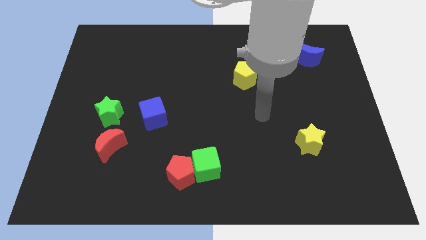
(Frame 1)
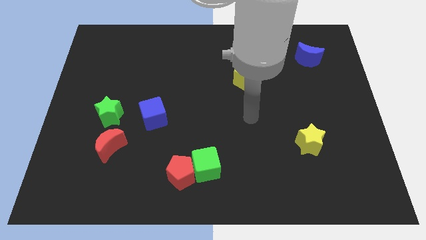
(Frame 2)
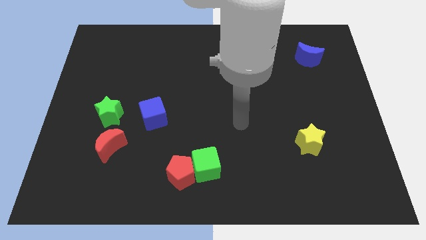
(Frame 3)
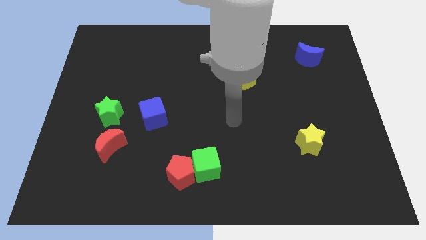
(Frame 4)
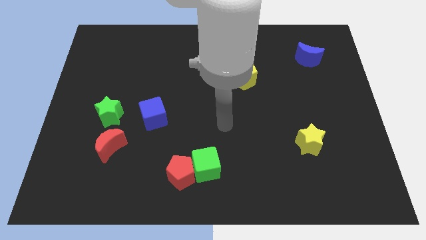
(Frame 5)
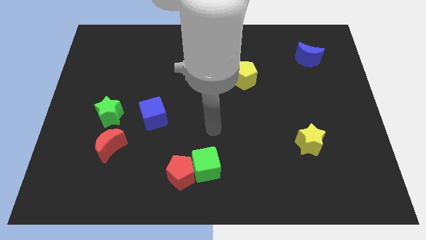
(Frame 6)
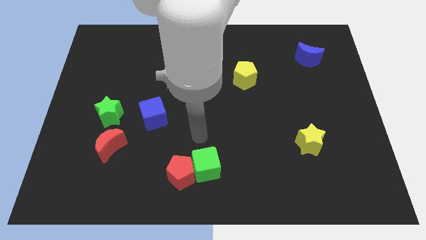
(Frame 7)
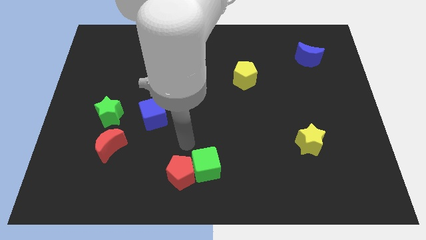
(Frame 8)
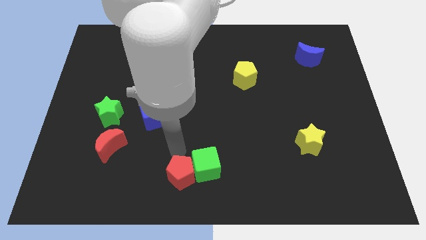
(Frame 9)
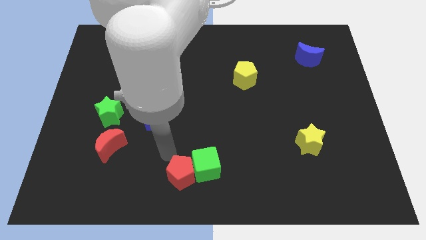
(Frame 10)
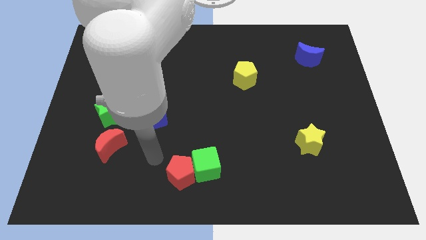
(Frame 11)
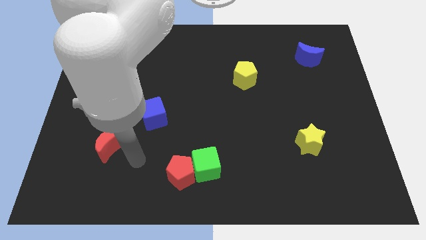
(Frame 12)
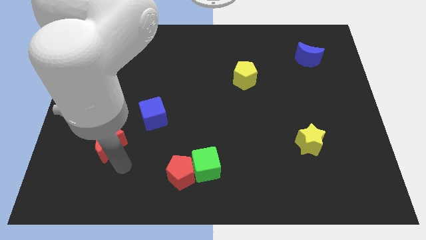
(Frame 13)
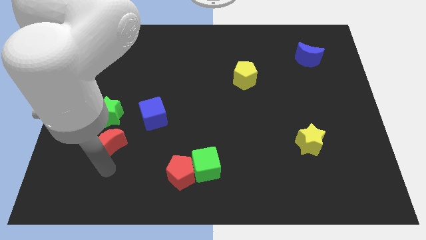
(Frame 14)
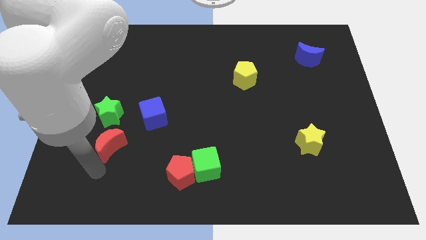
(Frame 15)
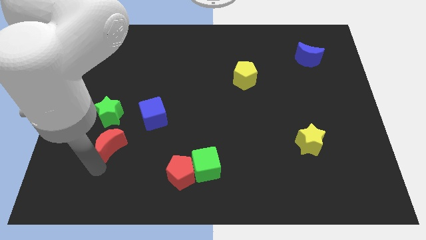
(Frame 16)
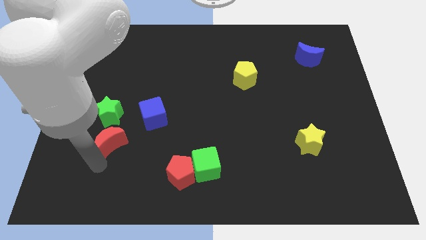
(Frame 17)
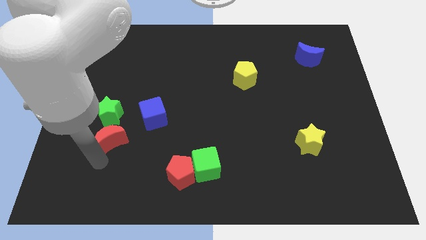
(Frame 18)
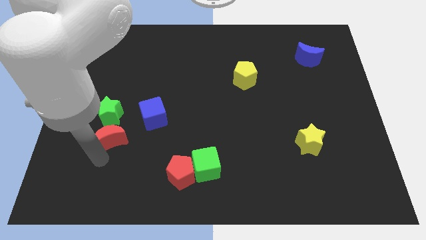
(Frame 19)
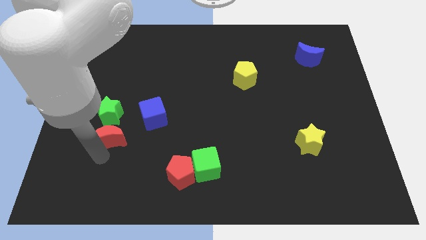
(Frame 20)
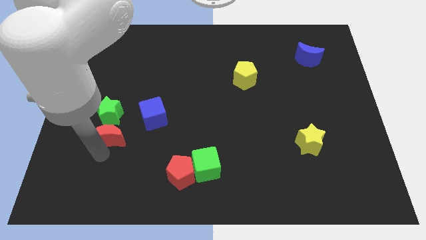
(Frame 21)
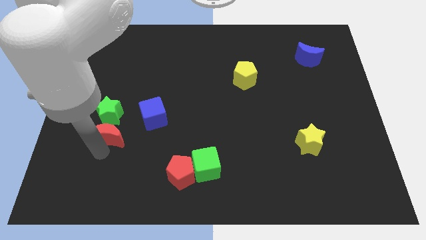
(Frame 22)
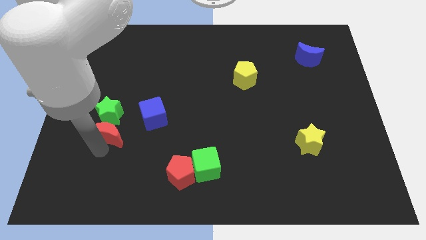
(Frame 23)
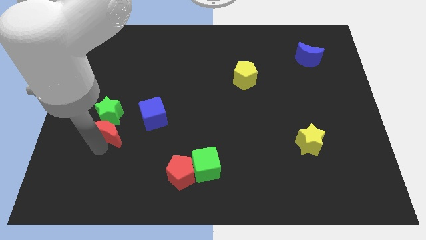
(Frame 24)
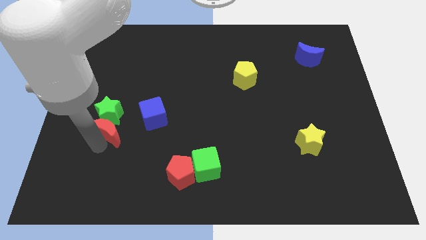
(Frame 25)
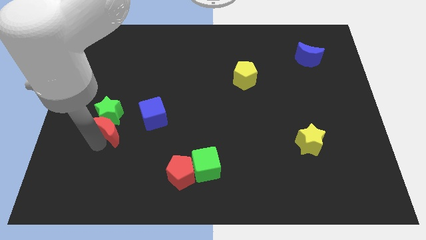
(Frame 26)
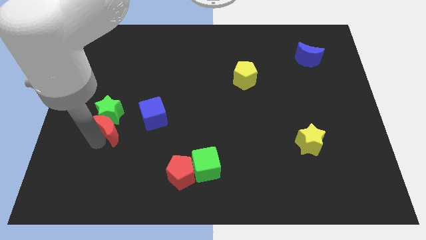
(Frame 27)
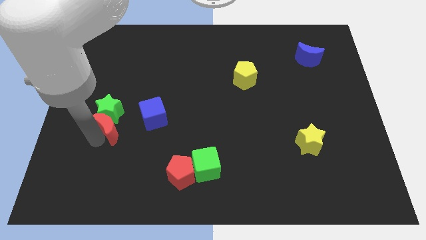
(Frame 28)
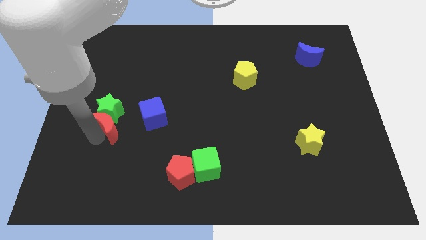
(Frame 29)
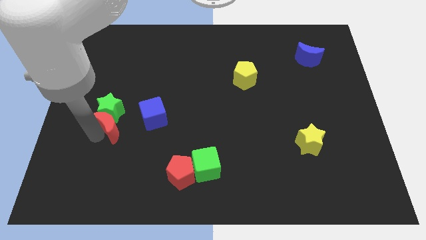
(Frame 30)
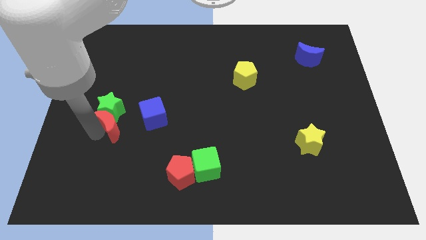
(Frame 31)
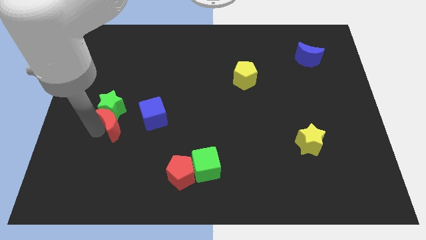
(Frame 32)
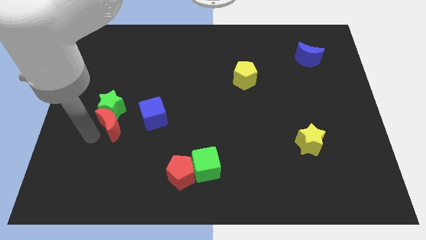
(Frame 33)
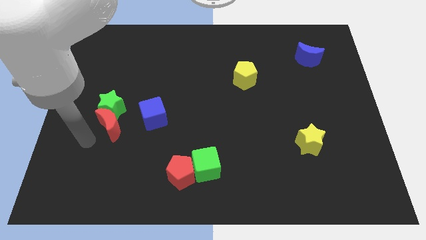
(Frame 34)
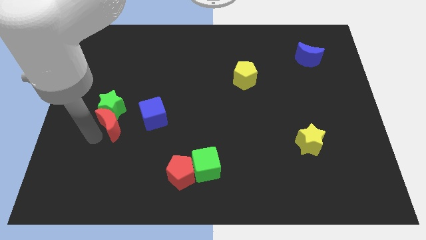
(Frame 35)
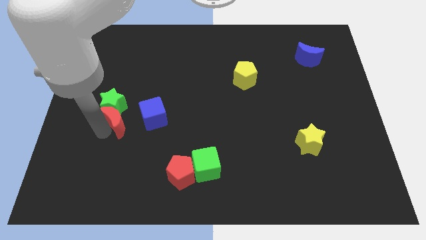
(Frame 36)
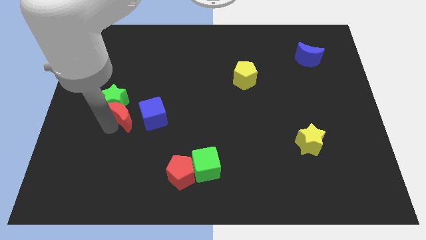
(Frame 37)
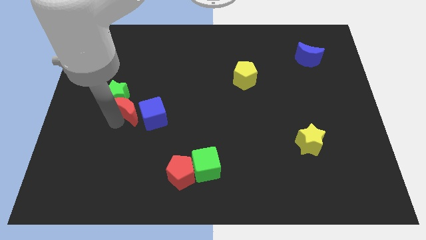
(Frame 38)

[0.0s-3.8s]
slightly push the red moon diagonally upwards and to the right

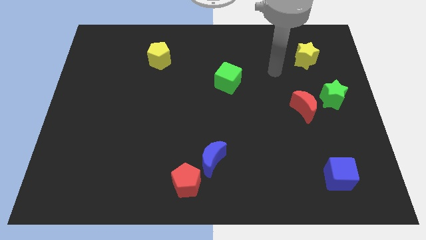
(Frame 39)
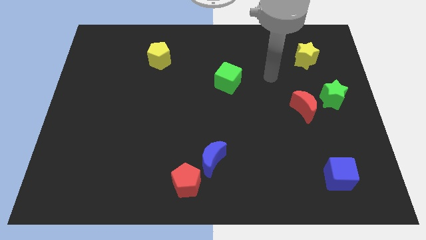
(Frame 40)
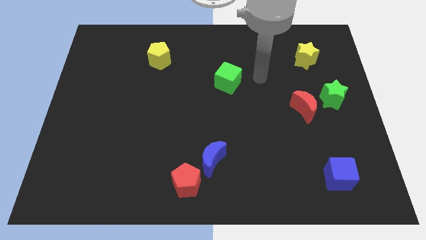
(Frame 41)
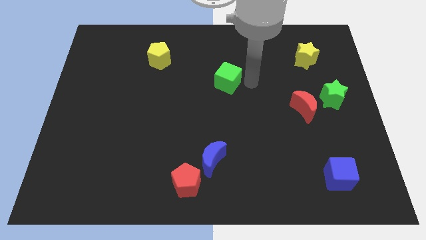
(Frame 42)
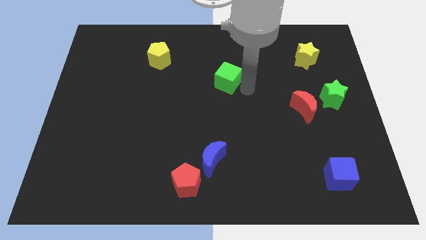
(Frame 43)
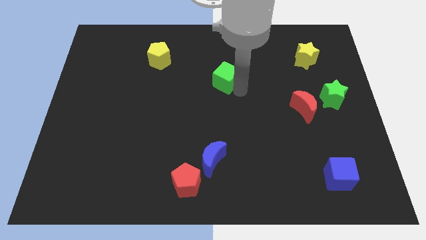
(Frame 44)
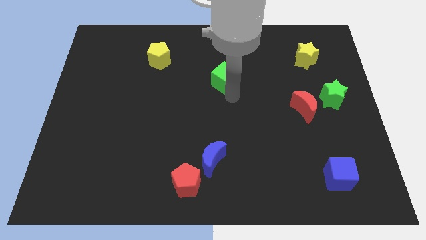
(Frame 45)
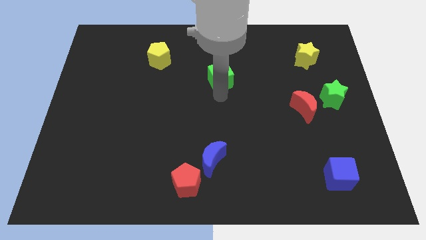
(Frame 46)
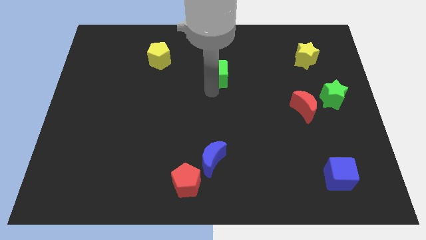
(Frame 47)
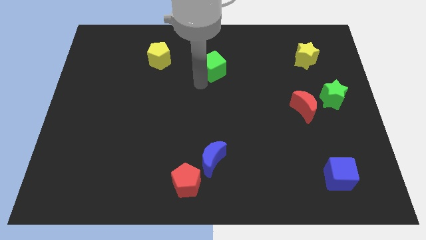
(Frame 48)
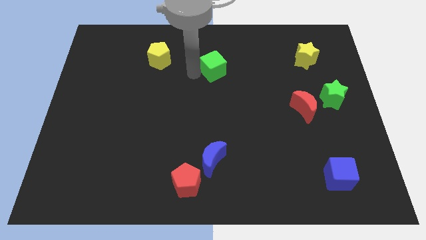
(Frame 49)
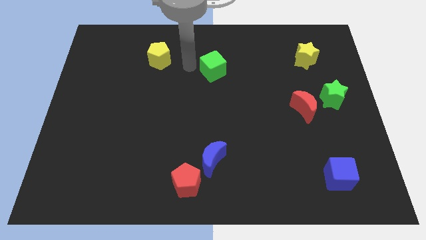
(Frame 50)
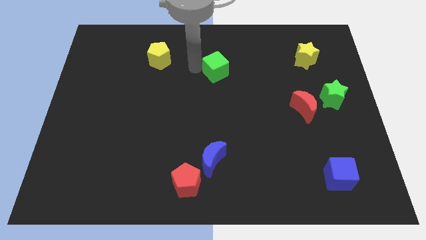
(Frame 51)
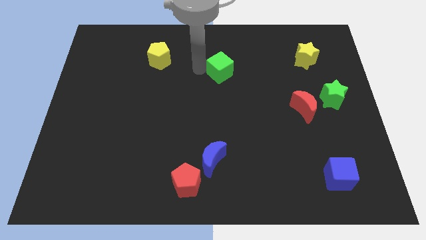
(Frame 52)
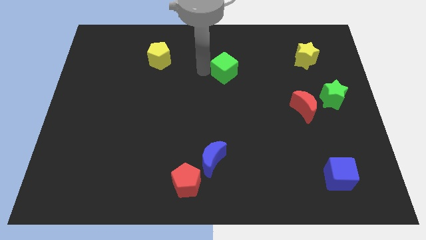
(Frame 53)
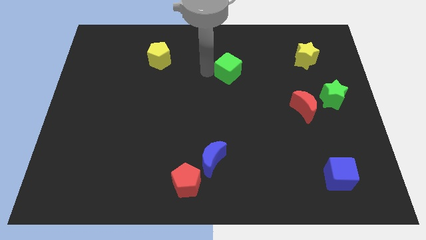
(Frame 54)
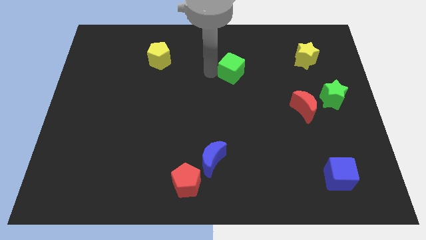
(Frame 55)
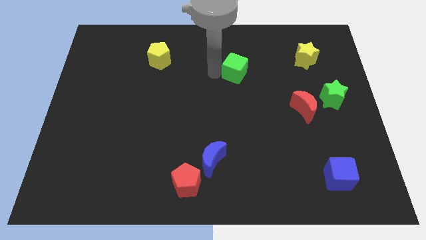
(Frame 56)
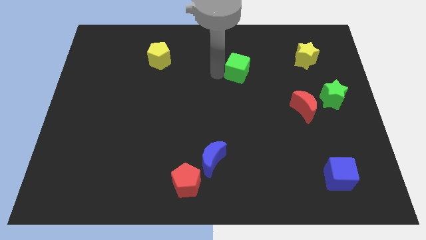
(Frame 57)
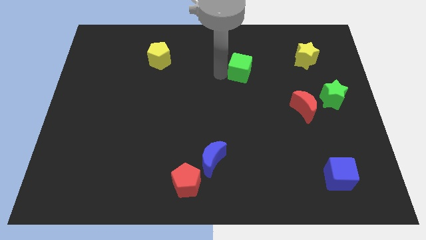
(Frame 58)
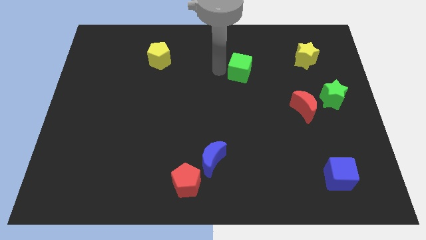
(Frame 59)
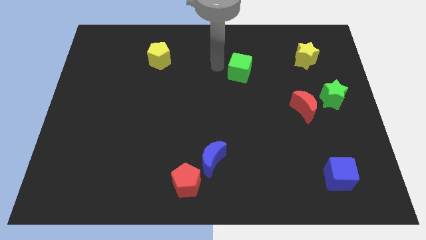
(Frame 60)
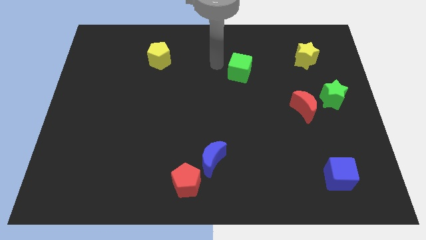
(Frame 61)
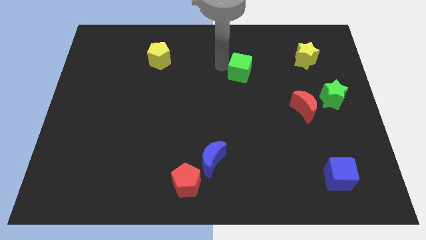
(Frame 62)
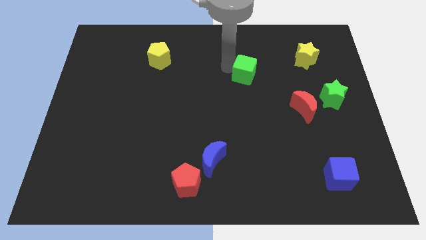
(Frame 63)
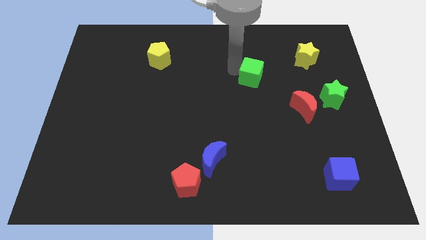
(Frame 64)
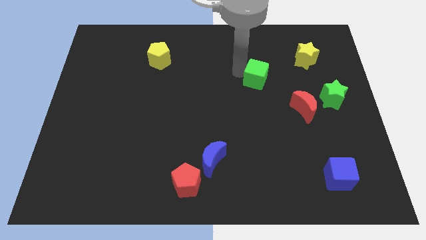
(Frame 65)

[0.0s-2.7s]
slide the green cube to the right a little

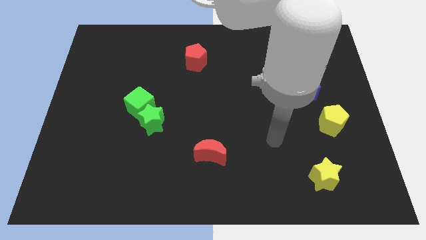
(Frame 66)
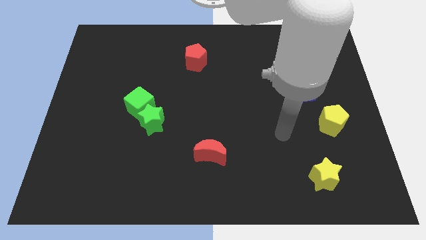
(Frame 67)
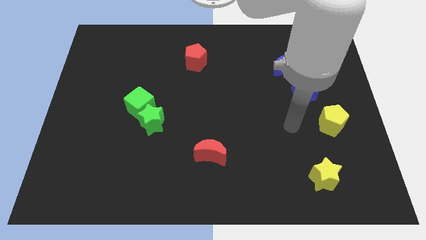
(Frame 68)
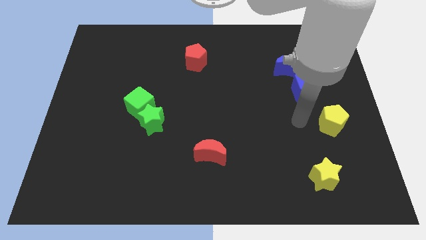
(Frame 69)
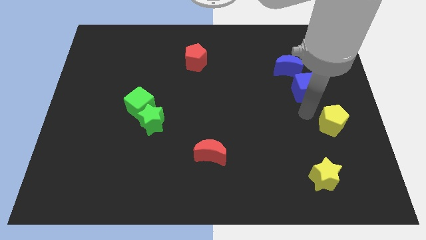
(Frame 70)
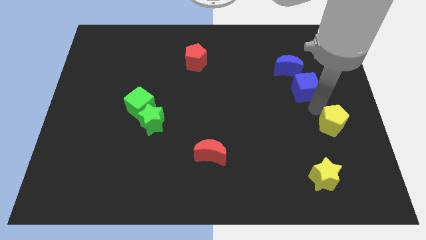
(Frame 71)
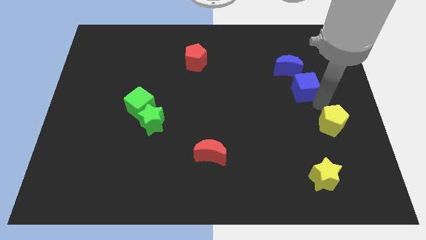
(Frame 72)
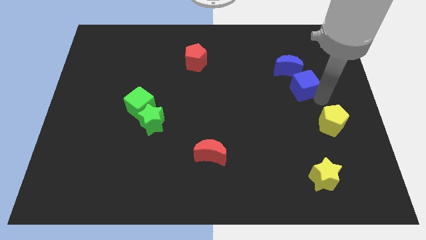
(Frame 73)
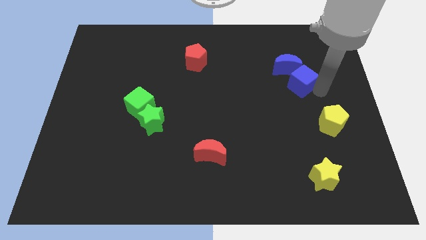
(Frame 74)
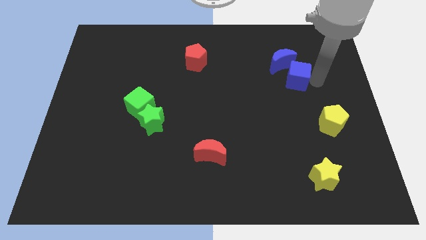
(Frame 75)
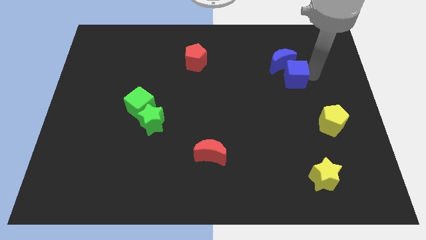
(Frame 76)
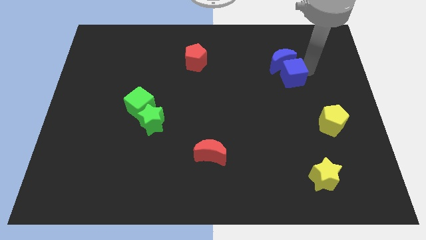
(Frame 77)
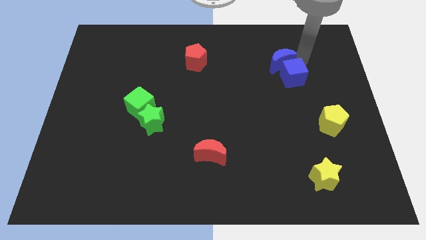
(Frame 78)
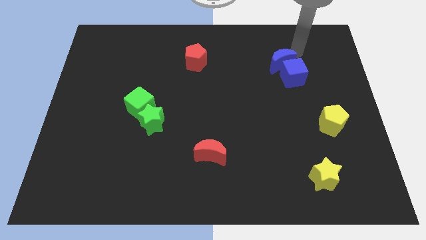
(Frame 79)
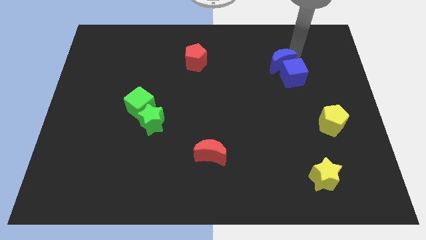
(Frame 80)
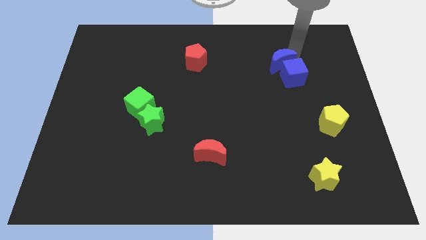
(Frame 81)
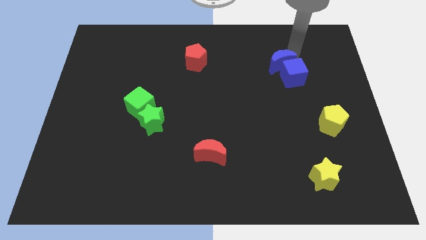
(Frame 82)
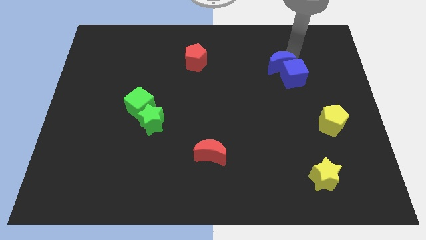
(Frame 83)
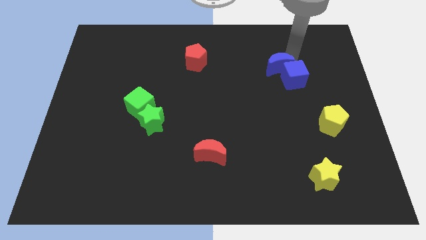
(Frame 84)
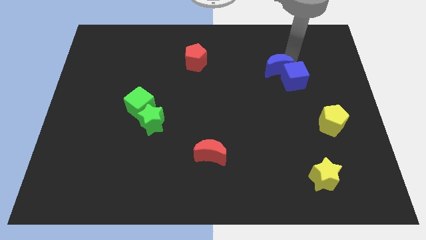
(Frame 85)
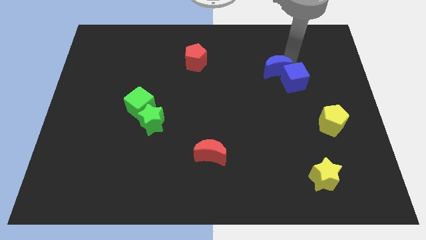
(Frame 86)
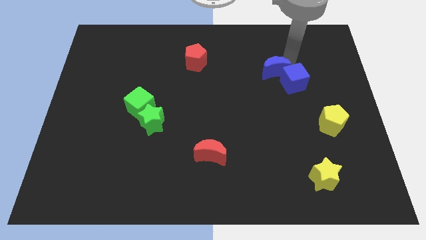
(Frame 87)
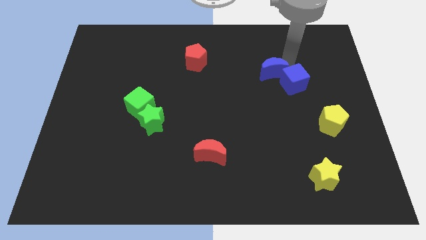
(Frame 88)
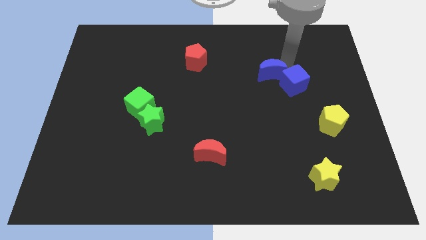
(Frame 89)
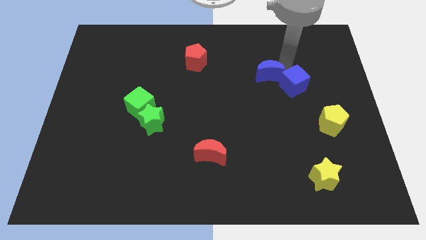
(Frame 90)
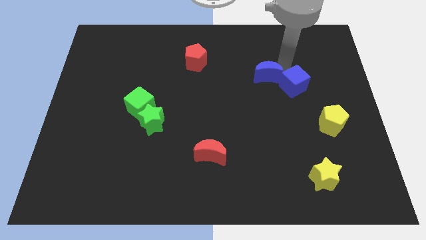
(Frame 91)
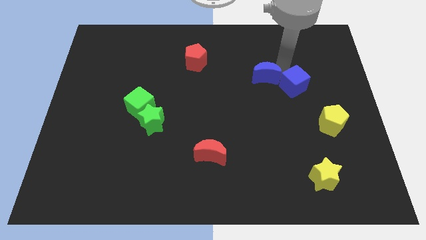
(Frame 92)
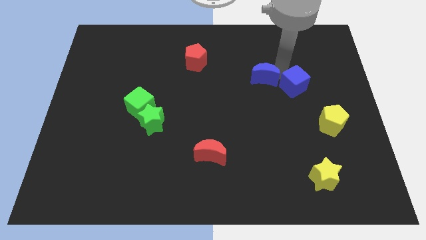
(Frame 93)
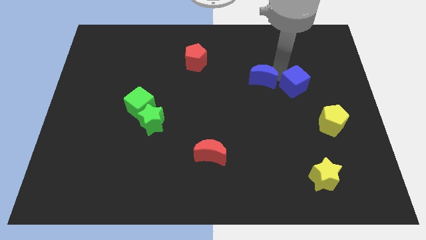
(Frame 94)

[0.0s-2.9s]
slightly move the blue moon downwards and to the left diagonally
